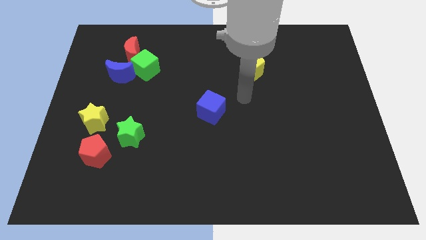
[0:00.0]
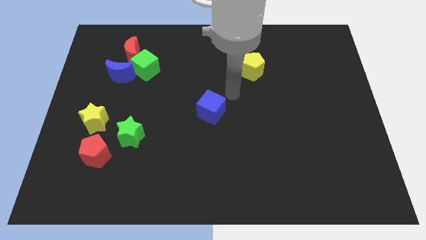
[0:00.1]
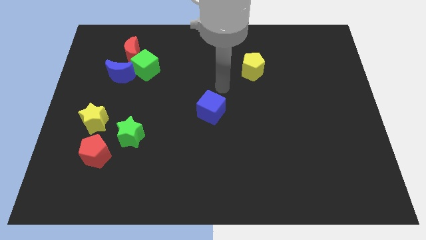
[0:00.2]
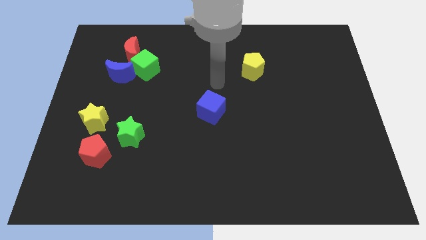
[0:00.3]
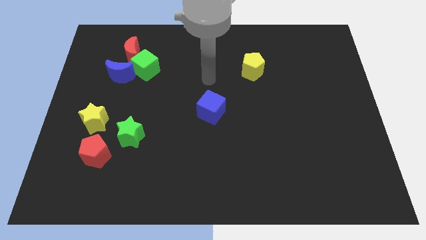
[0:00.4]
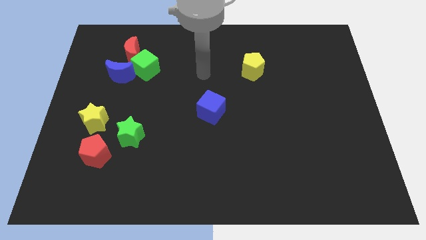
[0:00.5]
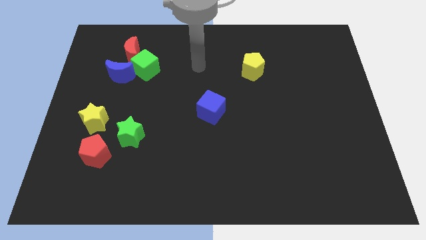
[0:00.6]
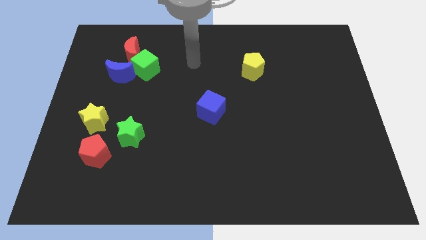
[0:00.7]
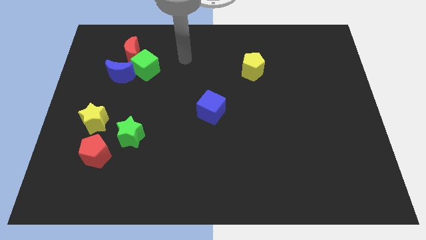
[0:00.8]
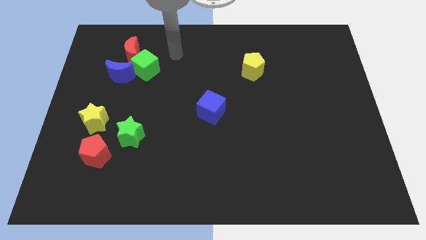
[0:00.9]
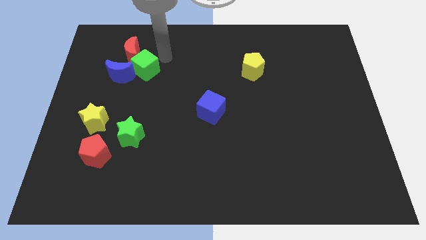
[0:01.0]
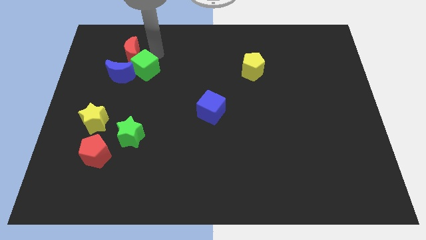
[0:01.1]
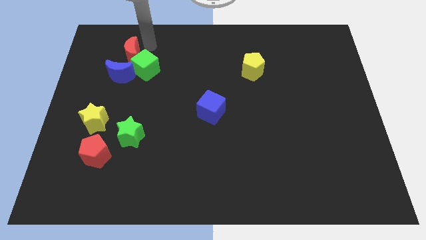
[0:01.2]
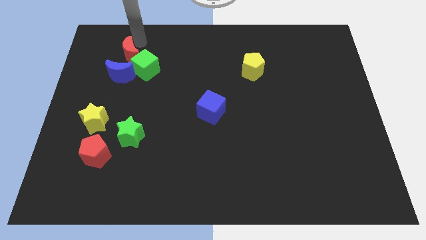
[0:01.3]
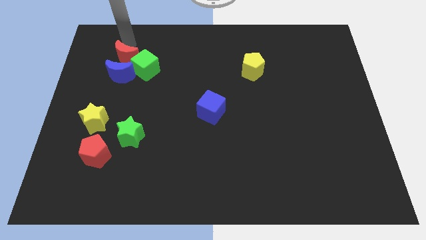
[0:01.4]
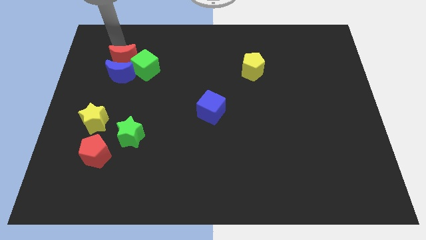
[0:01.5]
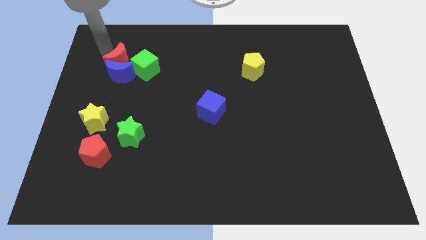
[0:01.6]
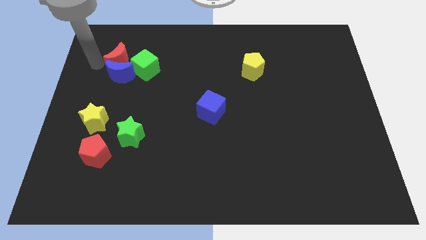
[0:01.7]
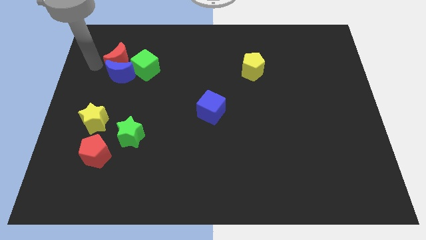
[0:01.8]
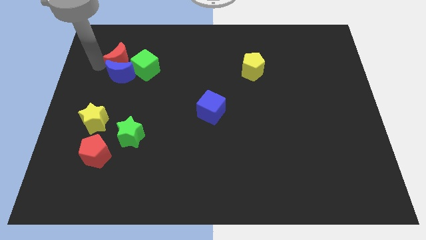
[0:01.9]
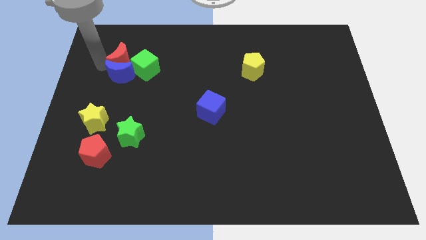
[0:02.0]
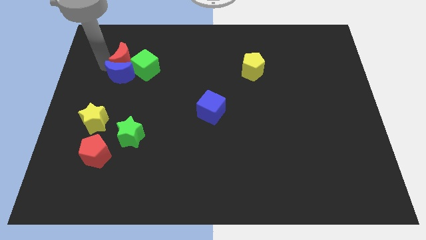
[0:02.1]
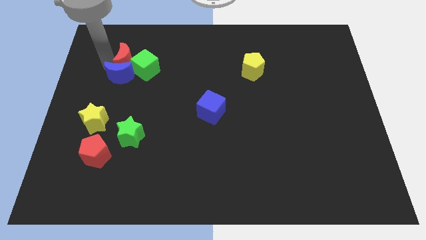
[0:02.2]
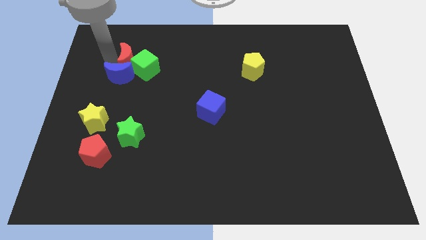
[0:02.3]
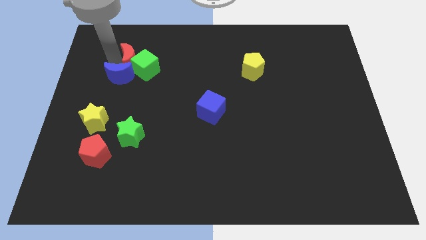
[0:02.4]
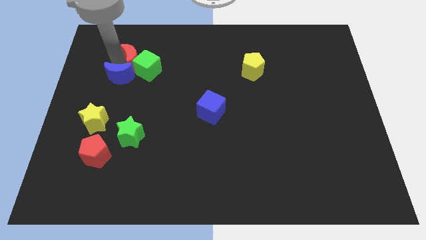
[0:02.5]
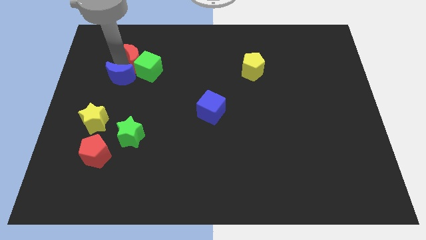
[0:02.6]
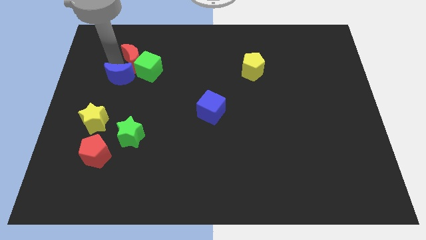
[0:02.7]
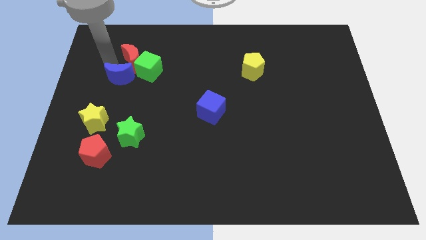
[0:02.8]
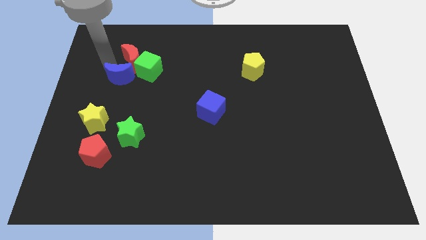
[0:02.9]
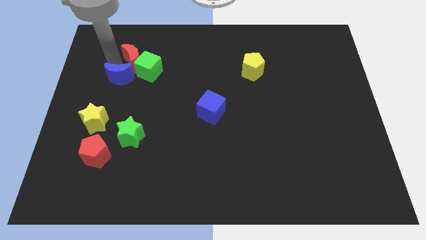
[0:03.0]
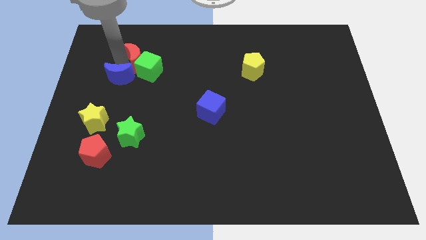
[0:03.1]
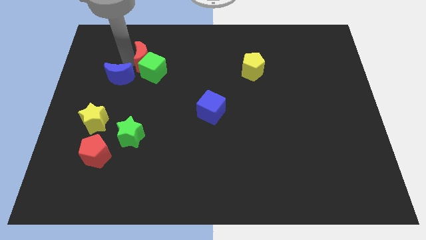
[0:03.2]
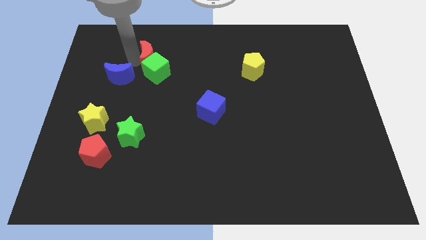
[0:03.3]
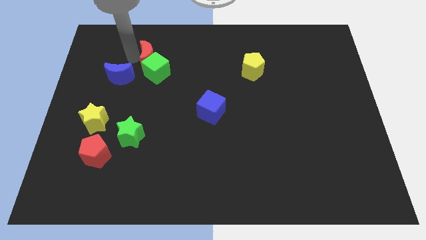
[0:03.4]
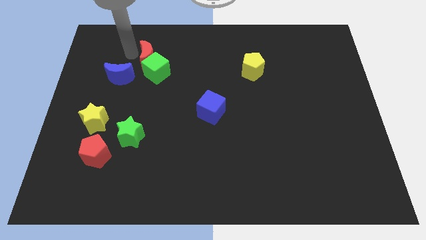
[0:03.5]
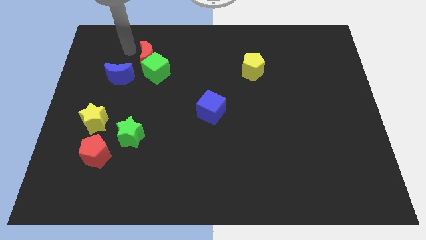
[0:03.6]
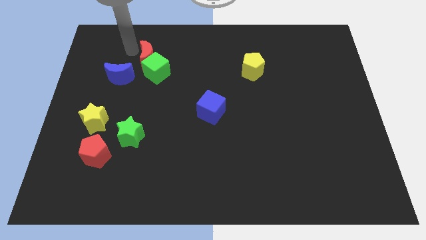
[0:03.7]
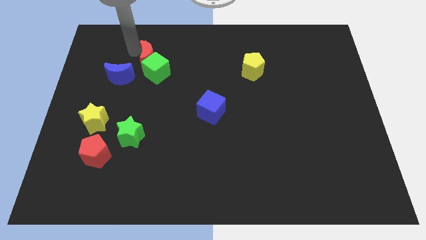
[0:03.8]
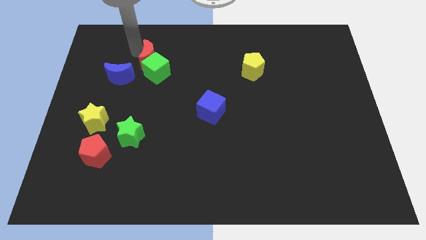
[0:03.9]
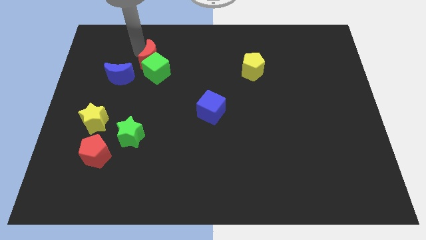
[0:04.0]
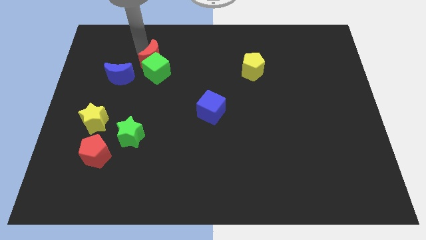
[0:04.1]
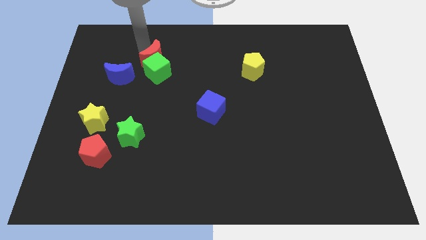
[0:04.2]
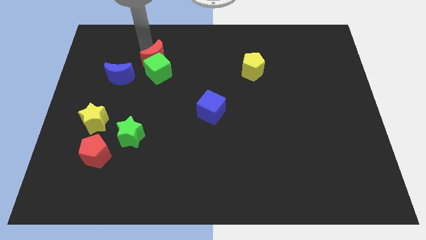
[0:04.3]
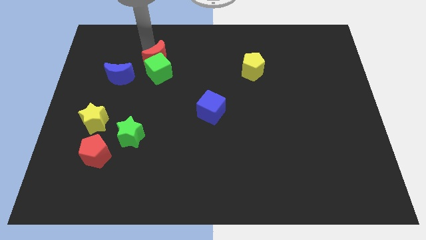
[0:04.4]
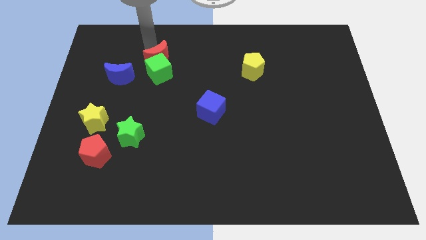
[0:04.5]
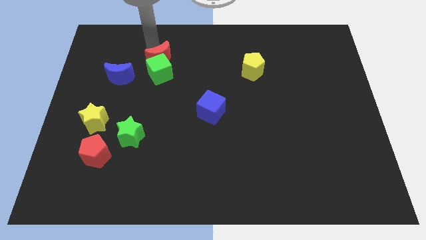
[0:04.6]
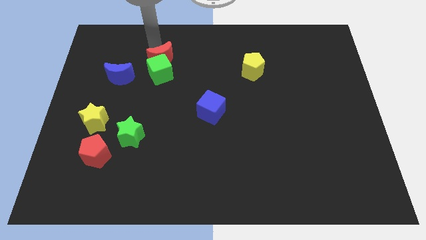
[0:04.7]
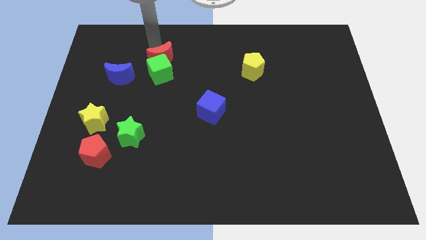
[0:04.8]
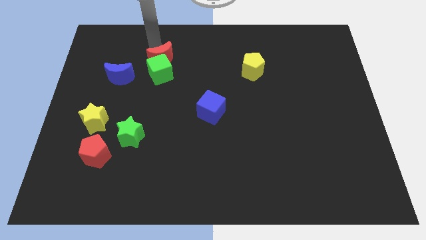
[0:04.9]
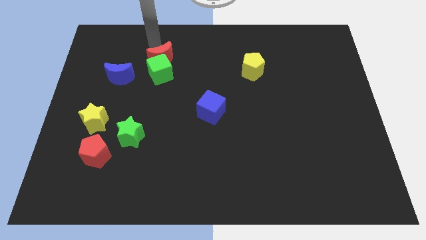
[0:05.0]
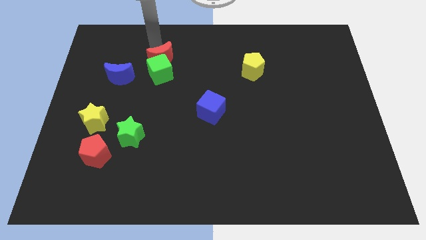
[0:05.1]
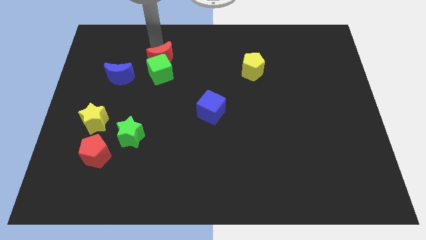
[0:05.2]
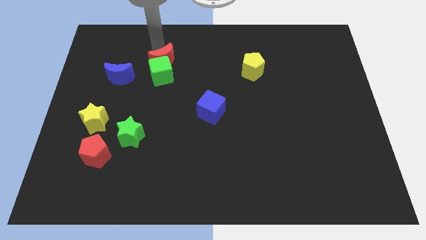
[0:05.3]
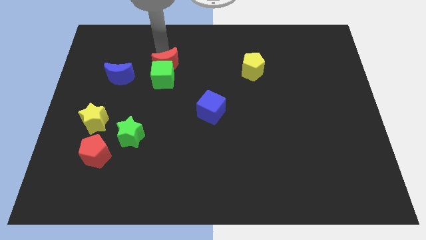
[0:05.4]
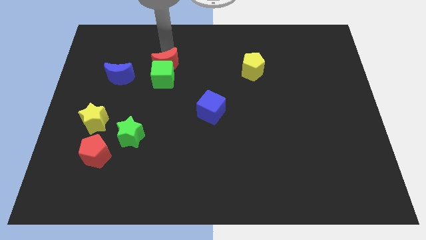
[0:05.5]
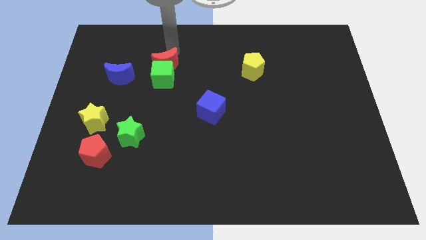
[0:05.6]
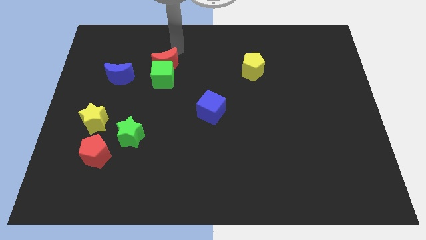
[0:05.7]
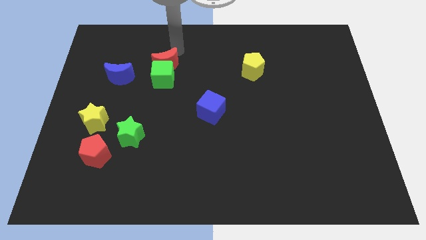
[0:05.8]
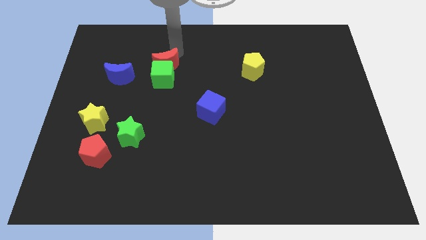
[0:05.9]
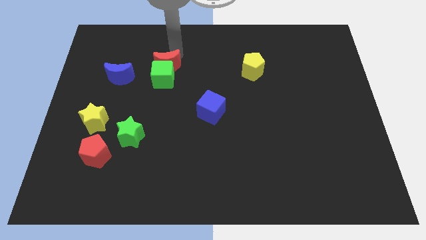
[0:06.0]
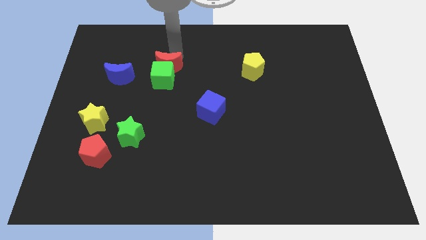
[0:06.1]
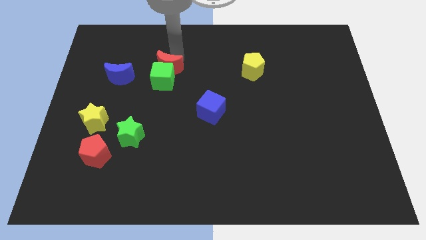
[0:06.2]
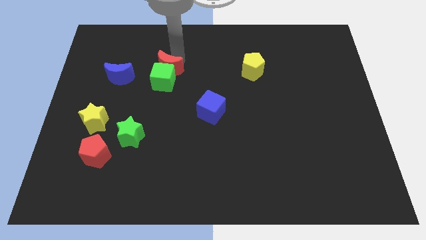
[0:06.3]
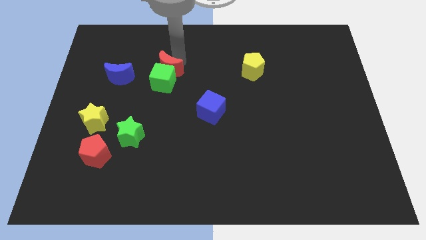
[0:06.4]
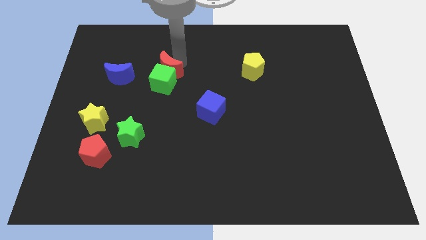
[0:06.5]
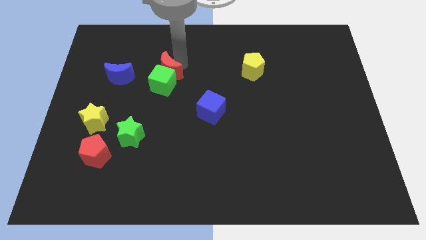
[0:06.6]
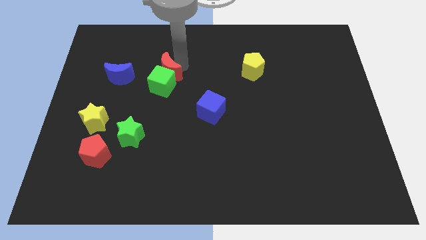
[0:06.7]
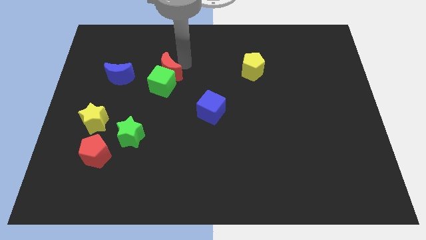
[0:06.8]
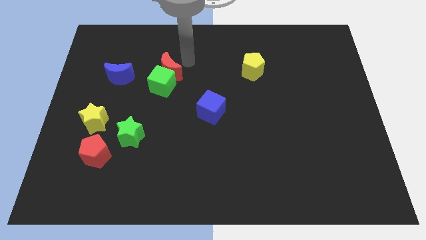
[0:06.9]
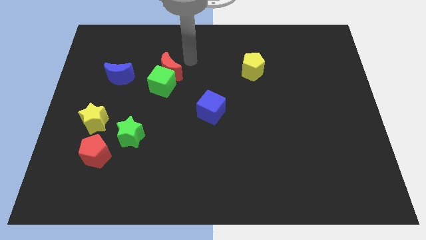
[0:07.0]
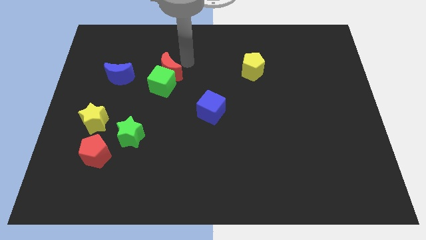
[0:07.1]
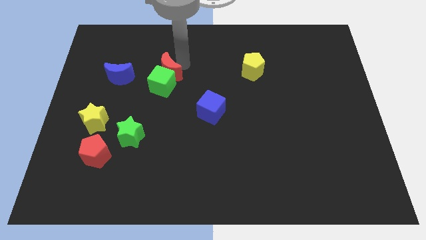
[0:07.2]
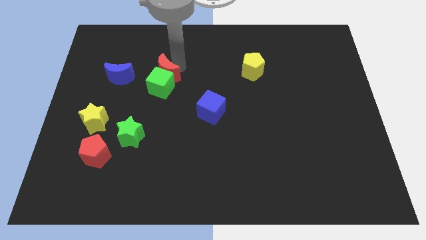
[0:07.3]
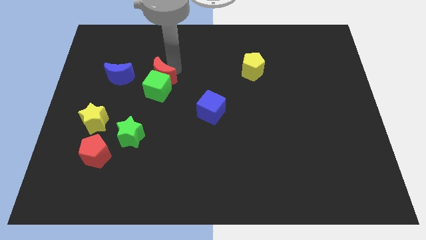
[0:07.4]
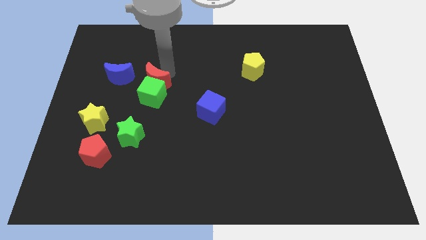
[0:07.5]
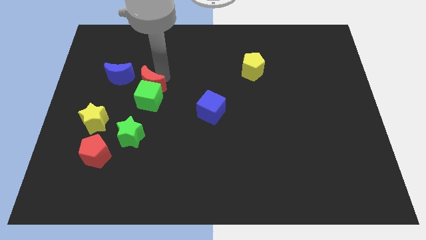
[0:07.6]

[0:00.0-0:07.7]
put the red moon diagonally down and to the right of the blue moon

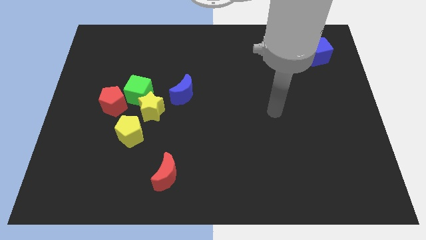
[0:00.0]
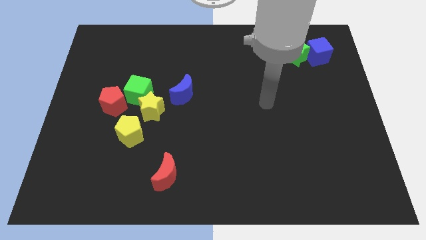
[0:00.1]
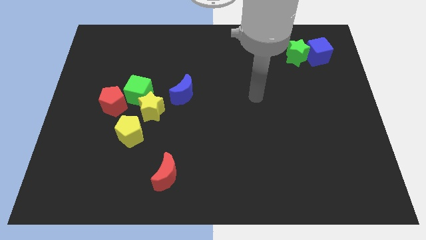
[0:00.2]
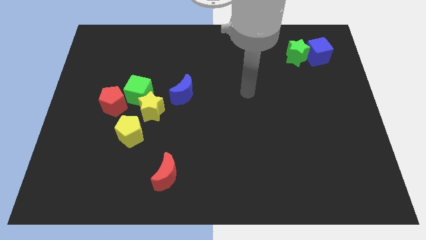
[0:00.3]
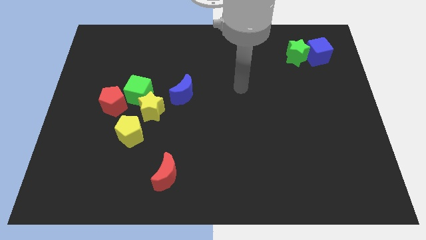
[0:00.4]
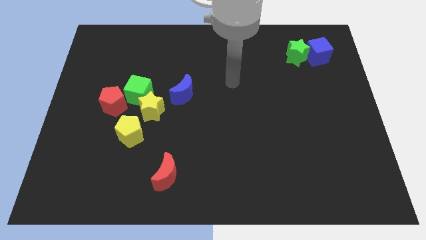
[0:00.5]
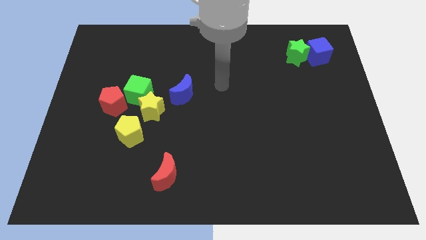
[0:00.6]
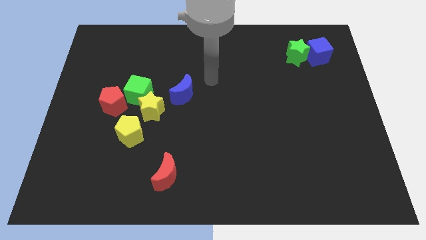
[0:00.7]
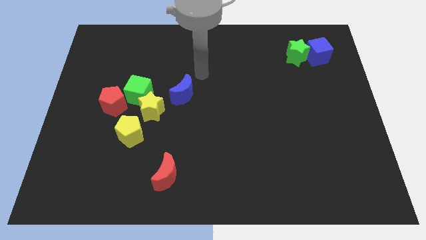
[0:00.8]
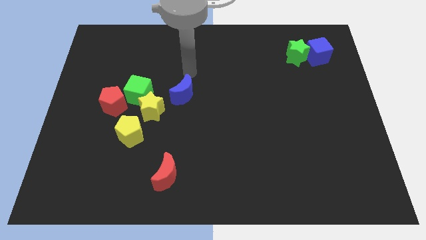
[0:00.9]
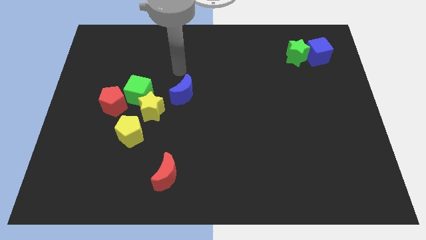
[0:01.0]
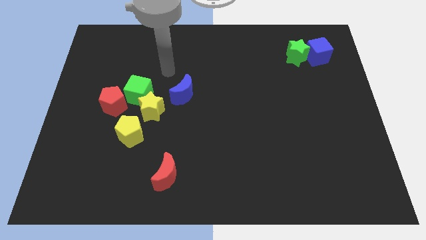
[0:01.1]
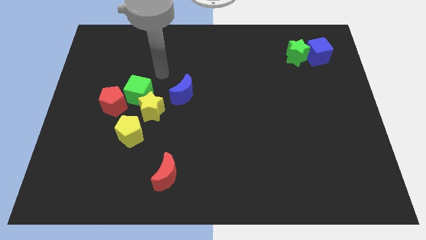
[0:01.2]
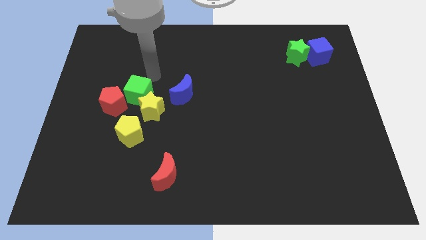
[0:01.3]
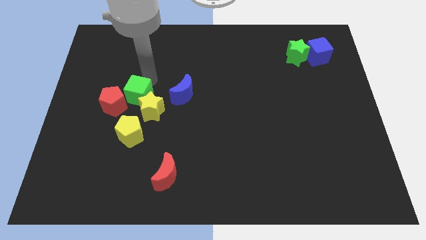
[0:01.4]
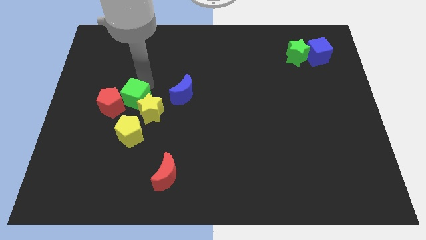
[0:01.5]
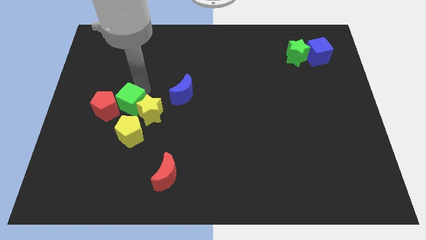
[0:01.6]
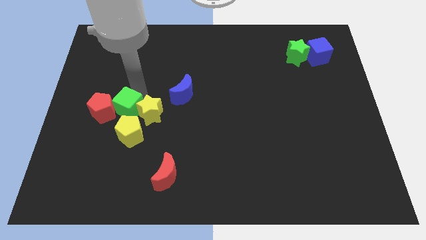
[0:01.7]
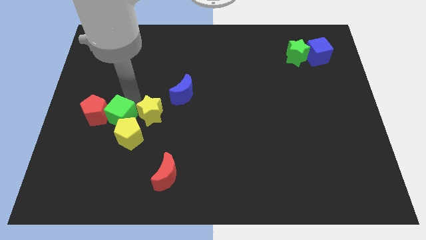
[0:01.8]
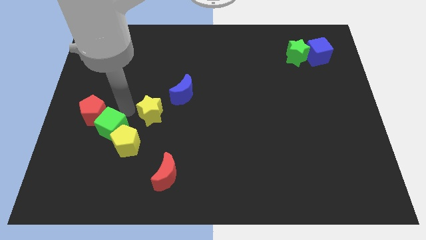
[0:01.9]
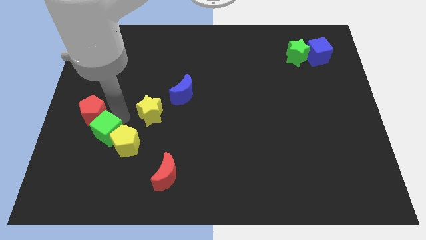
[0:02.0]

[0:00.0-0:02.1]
move the green cube to the bottom side of the red pentagon
